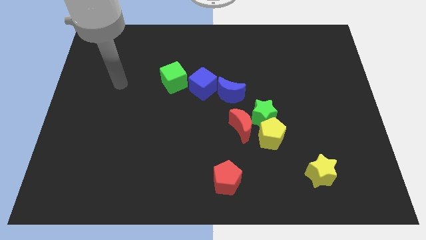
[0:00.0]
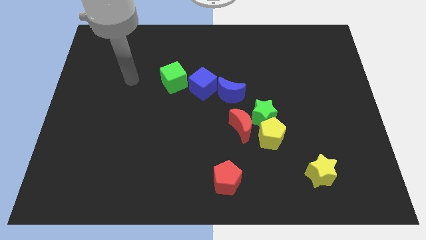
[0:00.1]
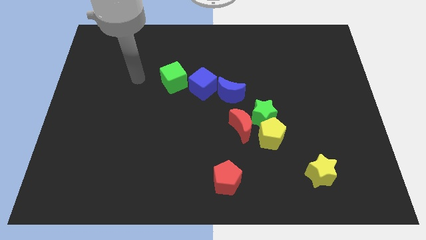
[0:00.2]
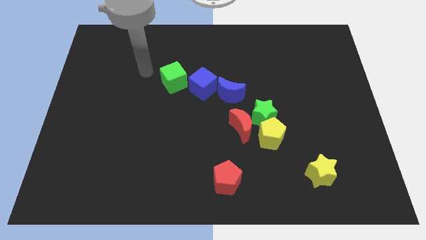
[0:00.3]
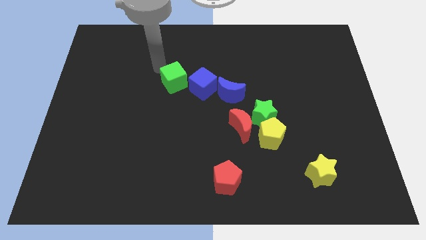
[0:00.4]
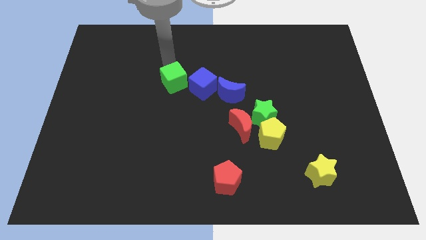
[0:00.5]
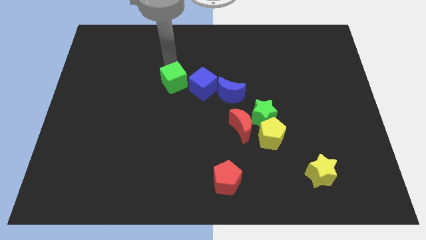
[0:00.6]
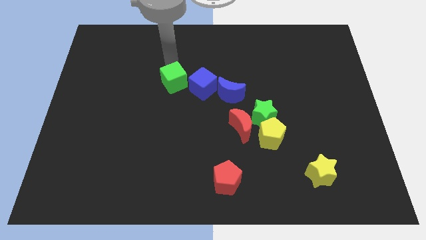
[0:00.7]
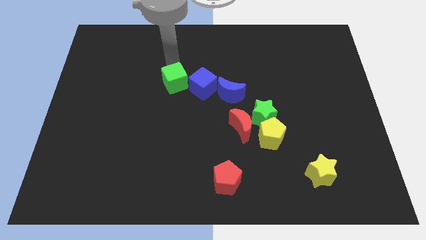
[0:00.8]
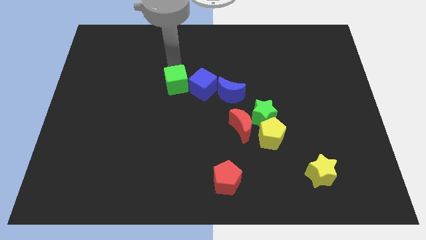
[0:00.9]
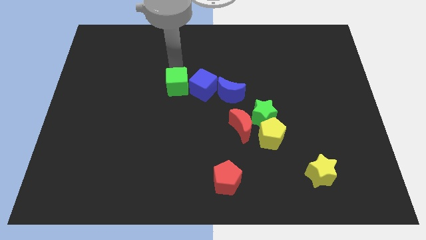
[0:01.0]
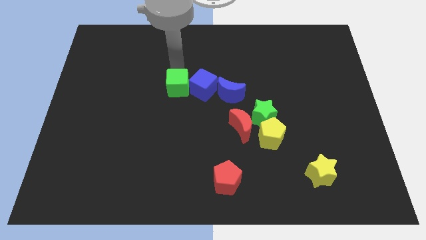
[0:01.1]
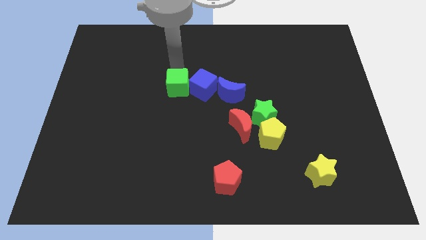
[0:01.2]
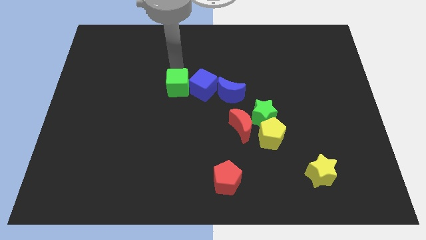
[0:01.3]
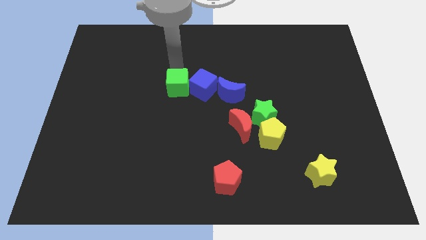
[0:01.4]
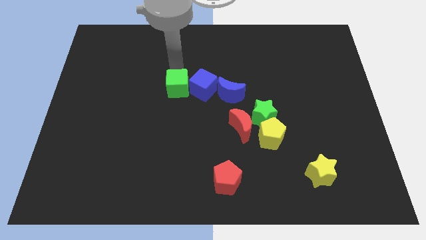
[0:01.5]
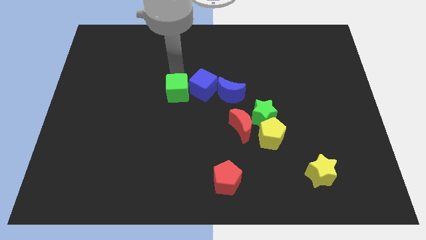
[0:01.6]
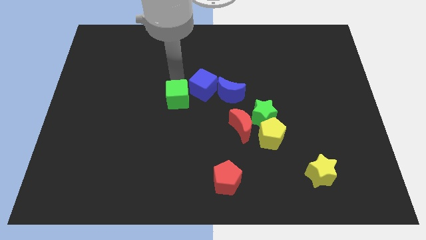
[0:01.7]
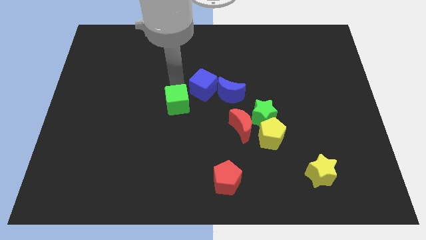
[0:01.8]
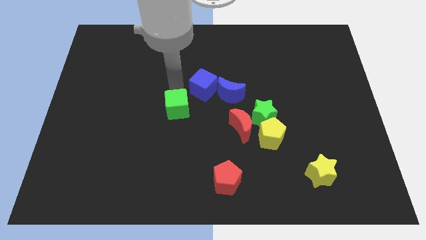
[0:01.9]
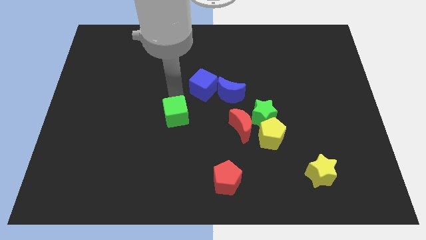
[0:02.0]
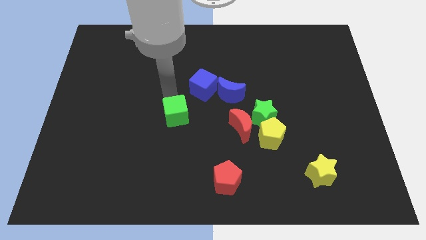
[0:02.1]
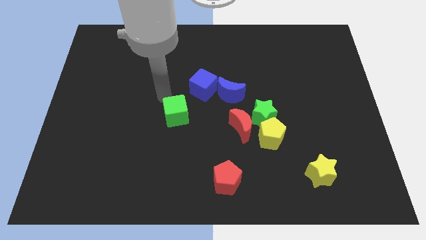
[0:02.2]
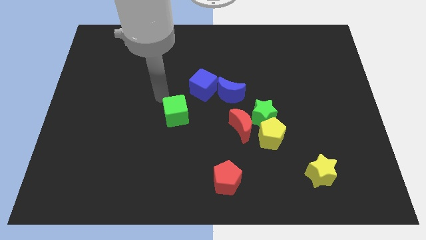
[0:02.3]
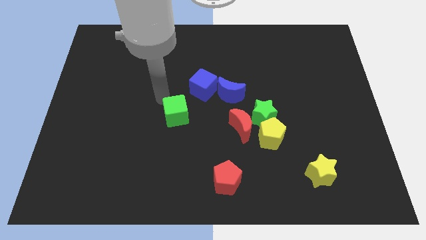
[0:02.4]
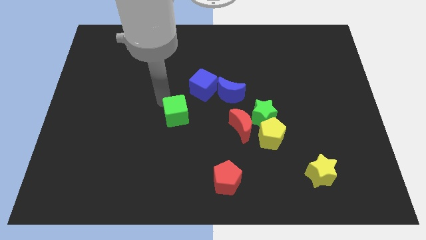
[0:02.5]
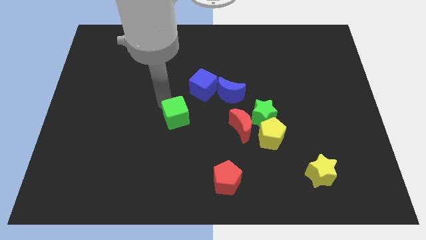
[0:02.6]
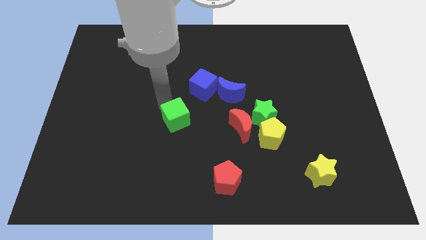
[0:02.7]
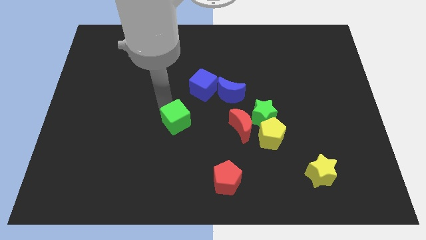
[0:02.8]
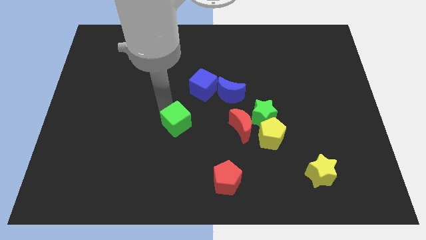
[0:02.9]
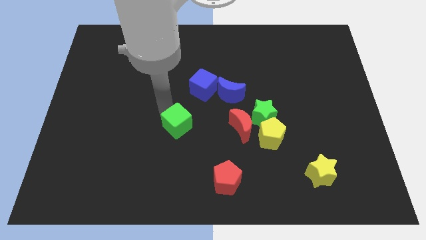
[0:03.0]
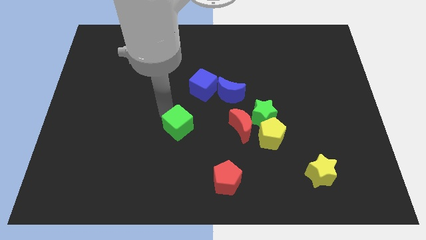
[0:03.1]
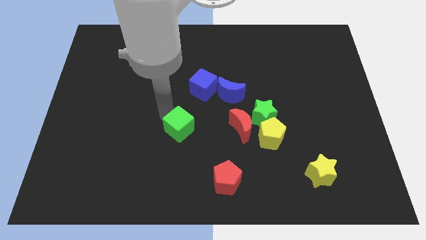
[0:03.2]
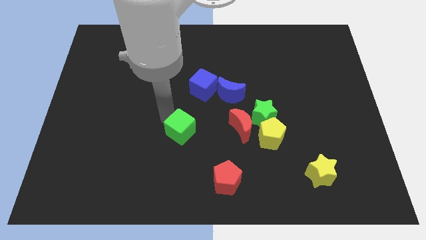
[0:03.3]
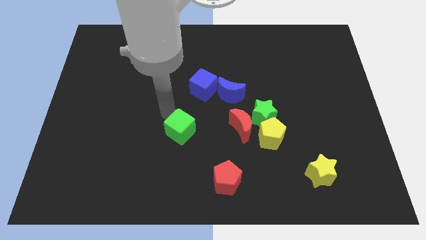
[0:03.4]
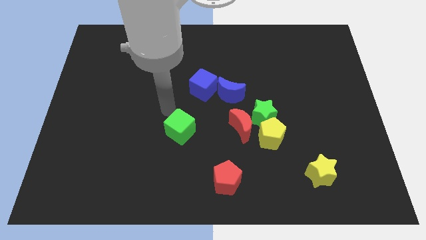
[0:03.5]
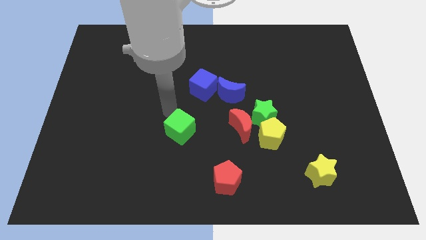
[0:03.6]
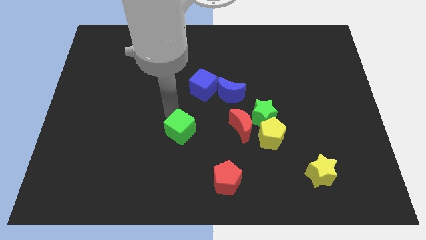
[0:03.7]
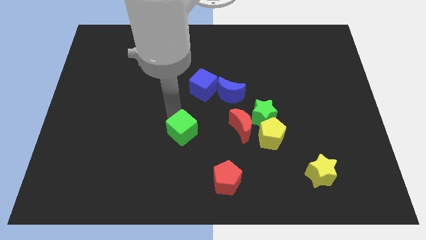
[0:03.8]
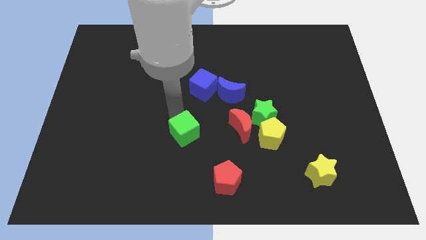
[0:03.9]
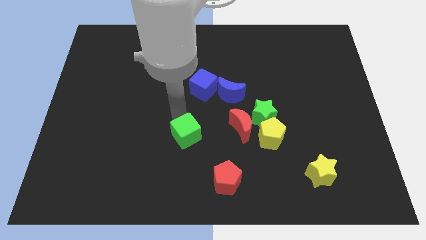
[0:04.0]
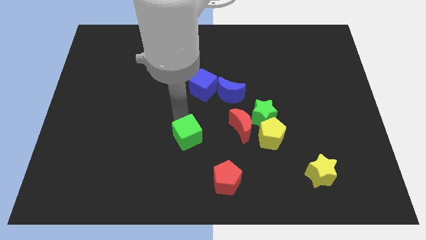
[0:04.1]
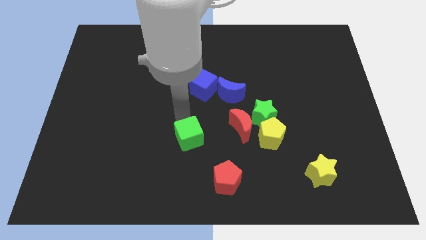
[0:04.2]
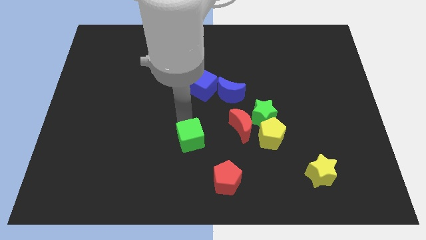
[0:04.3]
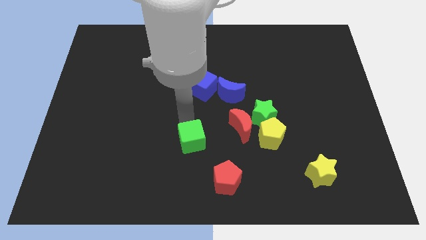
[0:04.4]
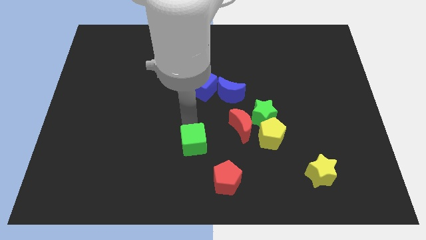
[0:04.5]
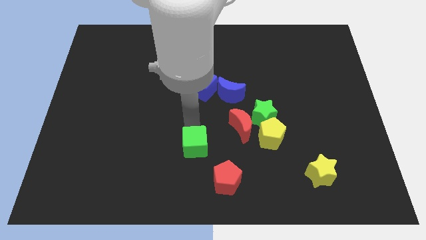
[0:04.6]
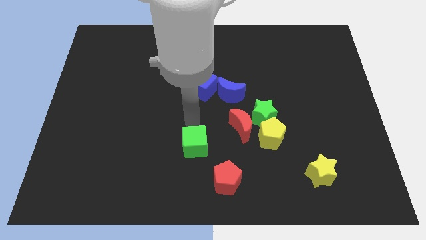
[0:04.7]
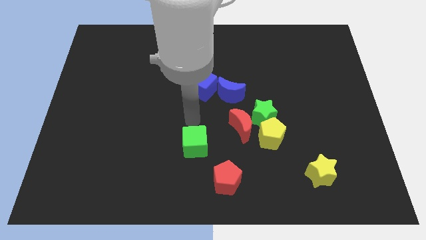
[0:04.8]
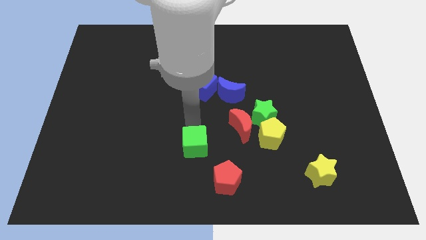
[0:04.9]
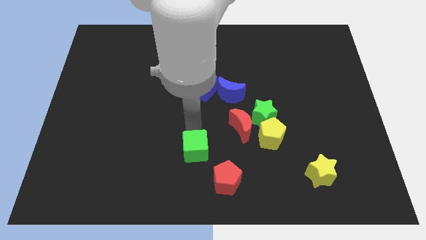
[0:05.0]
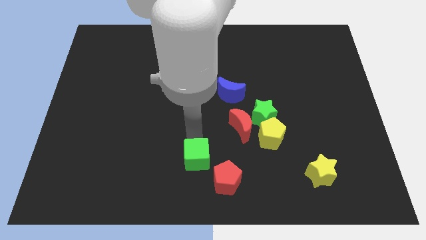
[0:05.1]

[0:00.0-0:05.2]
slide the green cube to the bottom side

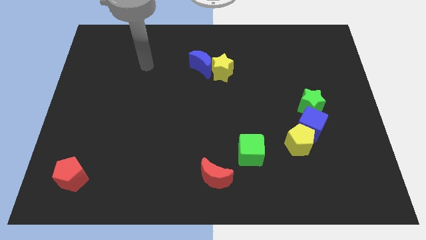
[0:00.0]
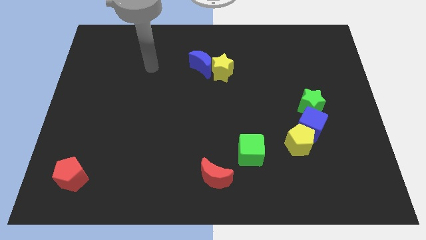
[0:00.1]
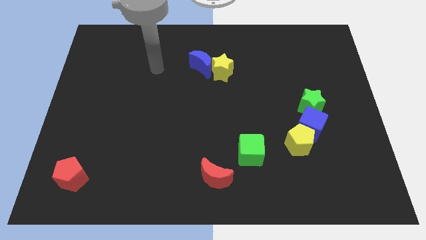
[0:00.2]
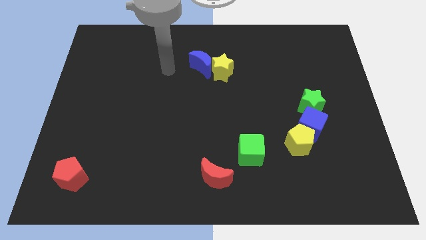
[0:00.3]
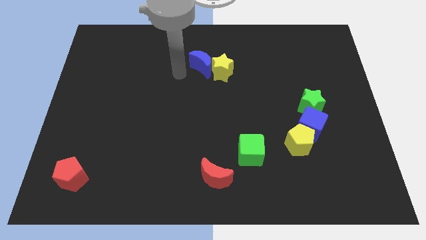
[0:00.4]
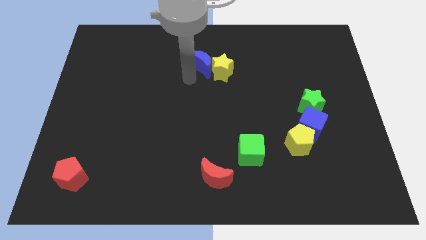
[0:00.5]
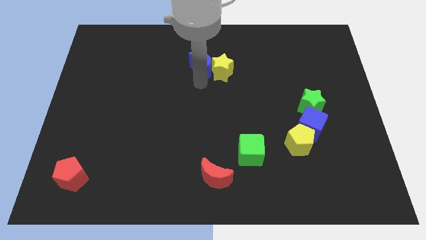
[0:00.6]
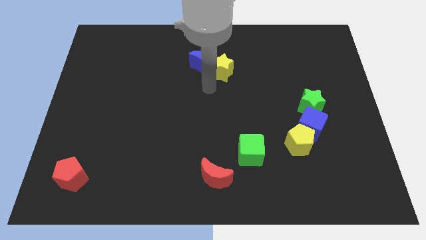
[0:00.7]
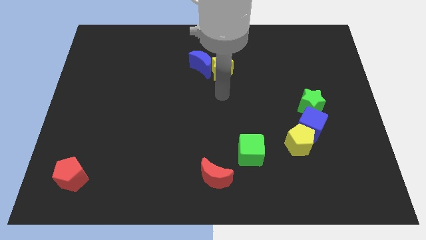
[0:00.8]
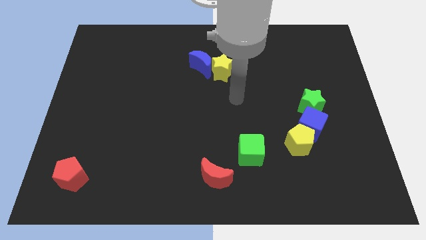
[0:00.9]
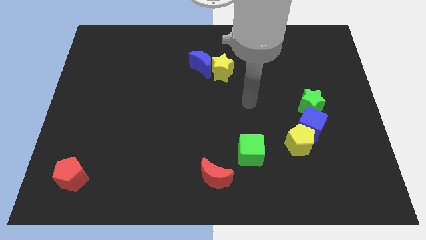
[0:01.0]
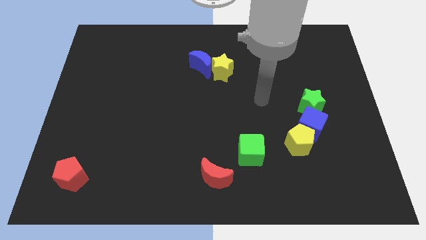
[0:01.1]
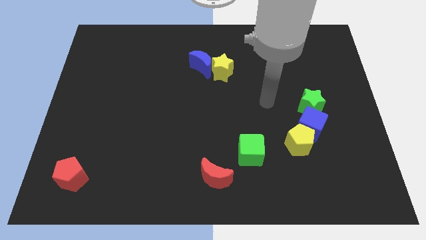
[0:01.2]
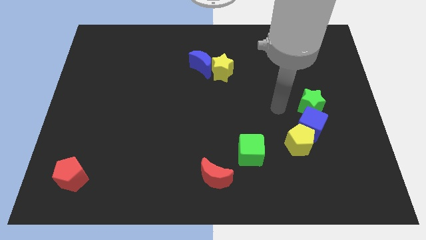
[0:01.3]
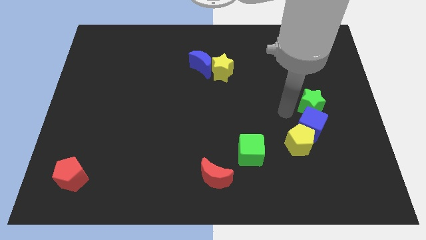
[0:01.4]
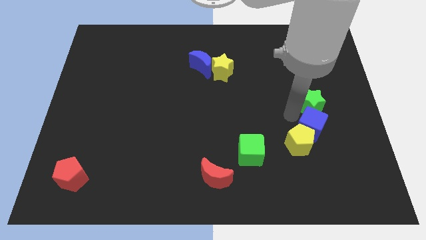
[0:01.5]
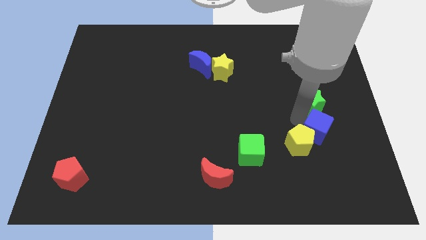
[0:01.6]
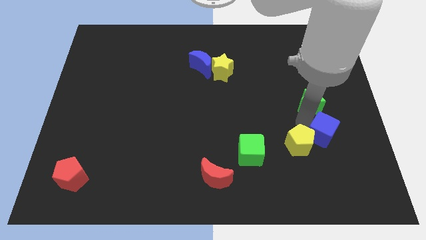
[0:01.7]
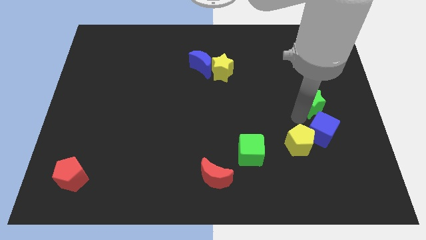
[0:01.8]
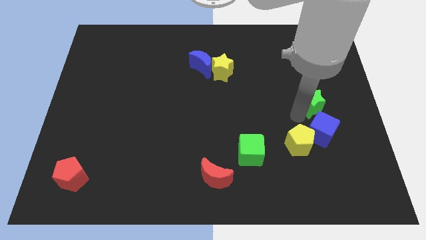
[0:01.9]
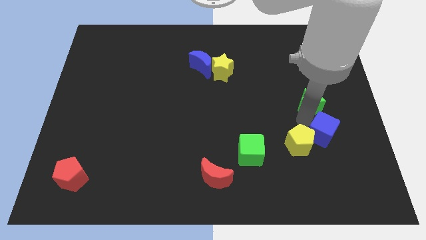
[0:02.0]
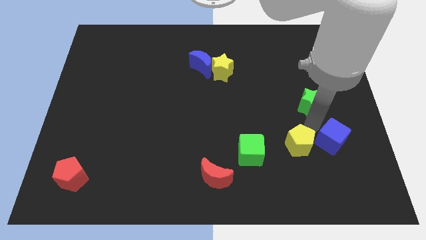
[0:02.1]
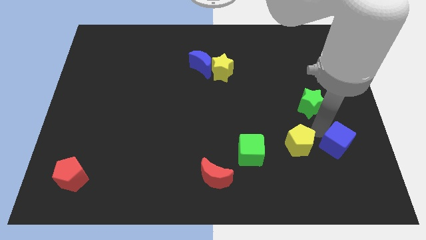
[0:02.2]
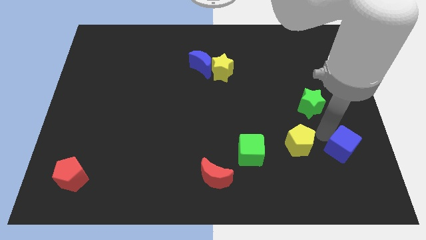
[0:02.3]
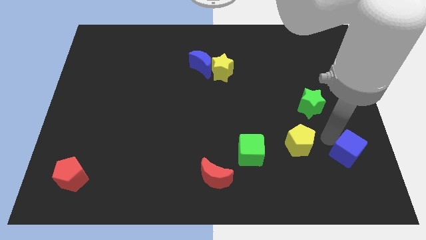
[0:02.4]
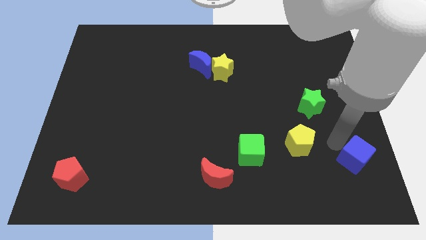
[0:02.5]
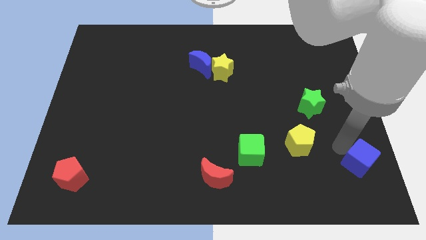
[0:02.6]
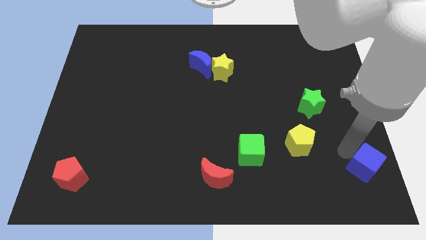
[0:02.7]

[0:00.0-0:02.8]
slide the blue cube to the bottom right
